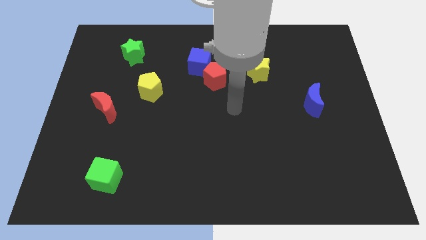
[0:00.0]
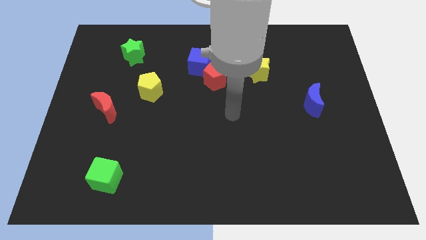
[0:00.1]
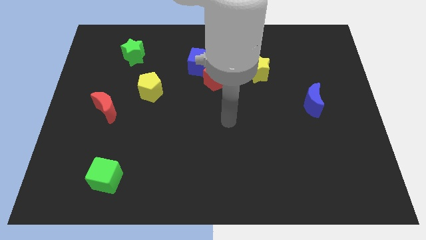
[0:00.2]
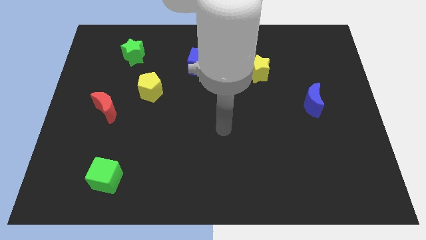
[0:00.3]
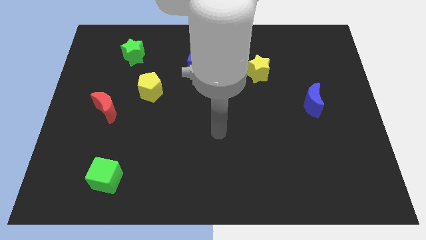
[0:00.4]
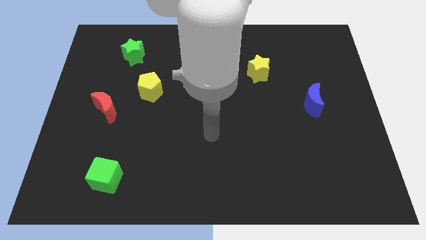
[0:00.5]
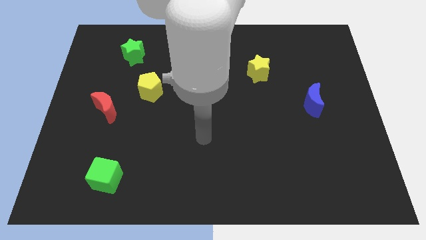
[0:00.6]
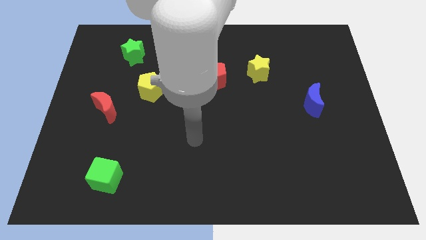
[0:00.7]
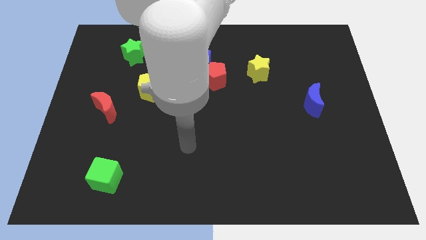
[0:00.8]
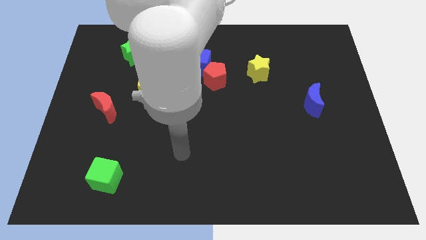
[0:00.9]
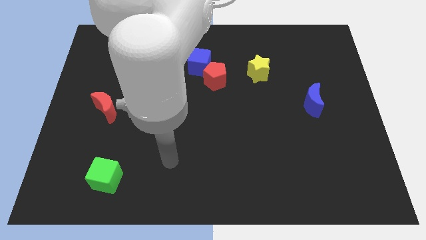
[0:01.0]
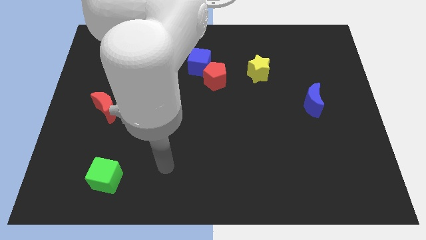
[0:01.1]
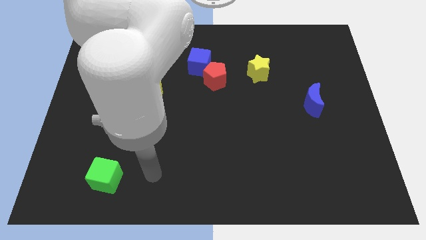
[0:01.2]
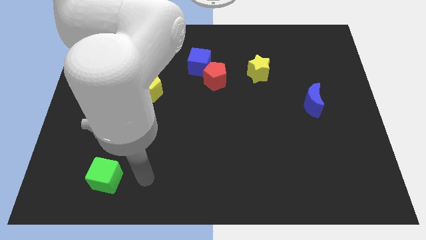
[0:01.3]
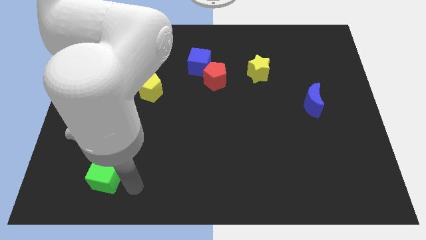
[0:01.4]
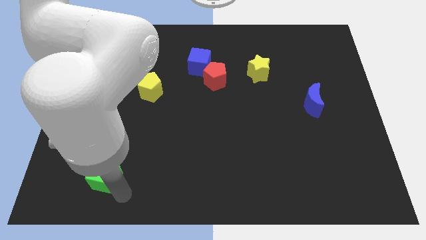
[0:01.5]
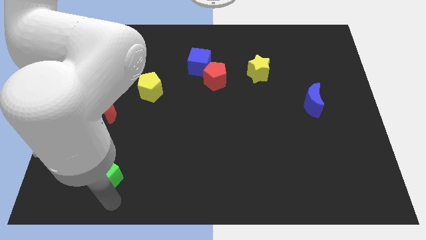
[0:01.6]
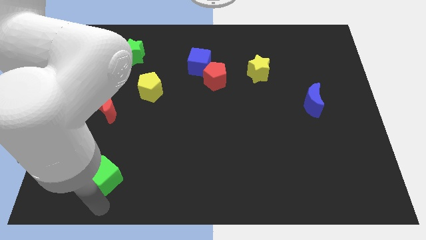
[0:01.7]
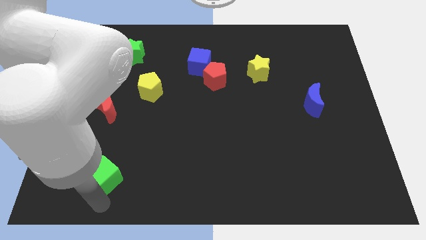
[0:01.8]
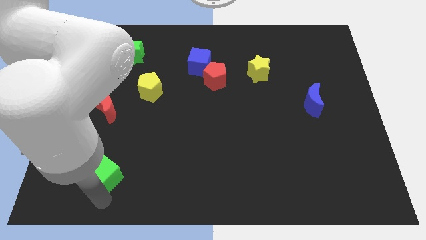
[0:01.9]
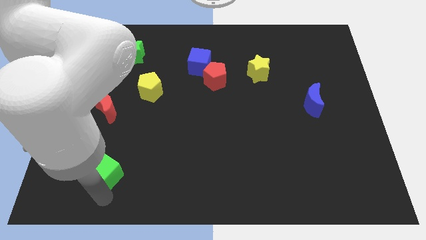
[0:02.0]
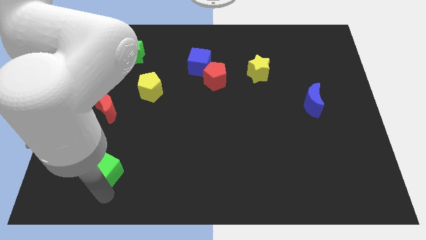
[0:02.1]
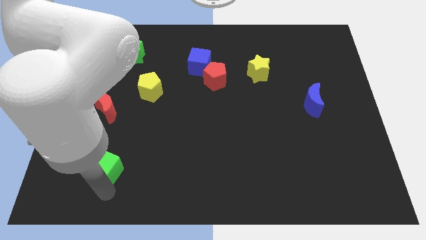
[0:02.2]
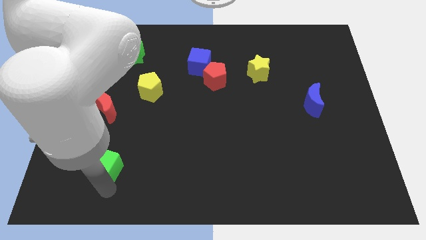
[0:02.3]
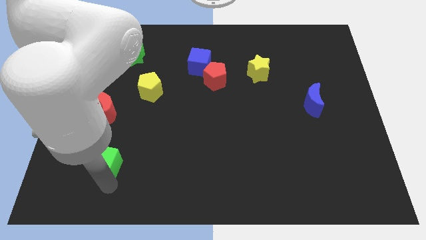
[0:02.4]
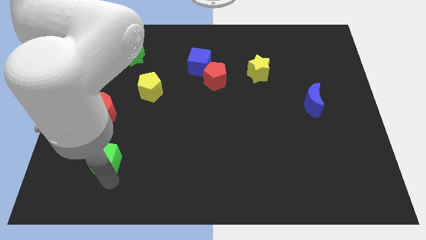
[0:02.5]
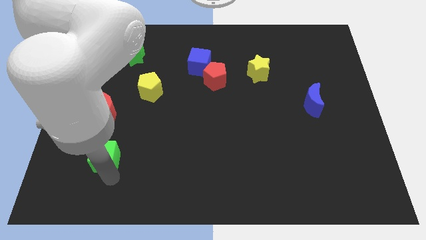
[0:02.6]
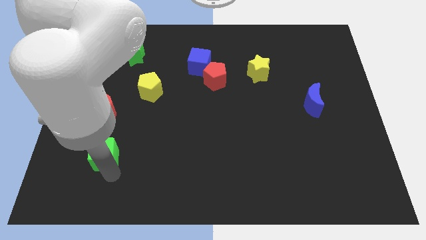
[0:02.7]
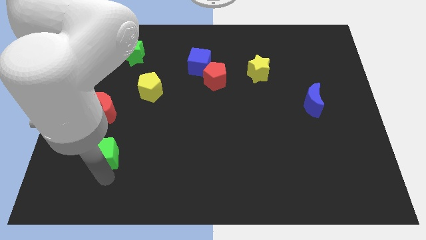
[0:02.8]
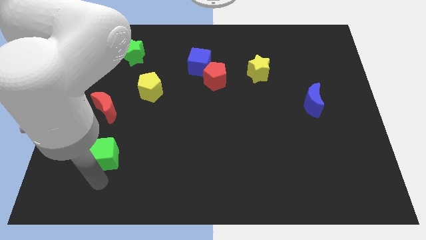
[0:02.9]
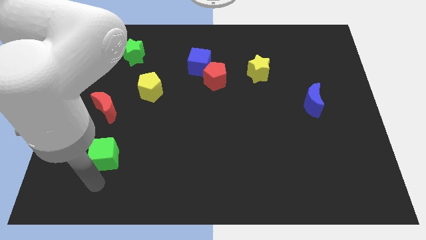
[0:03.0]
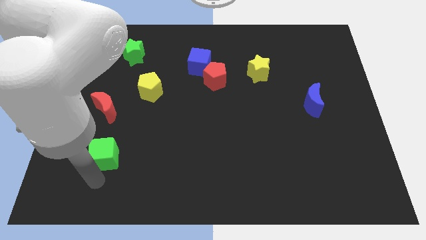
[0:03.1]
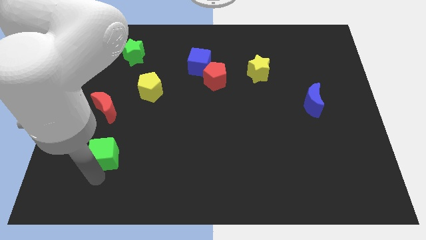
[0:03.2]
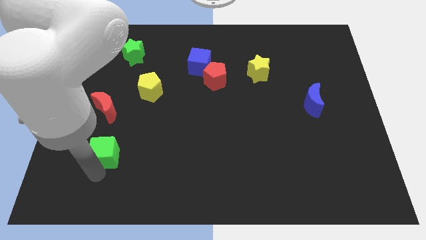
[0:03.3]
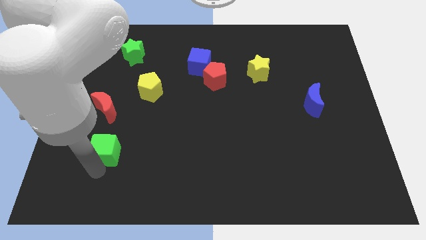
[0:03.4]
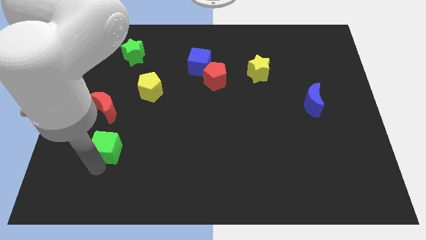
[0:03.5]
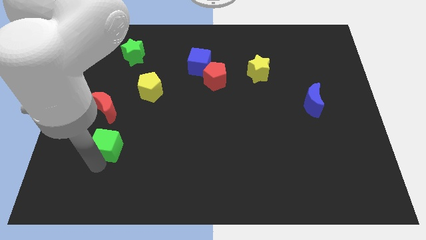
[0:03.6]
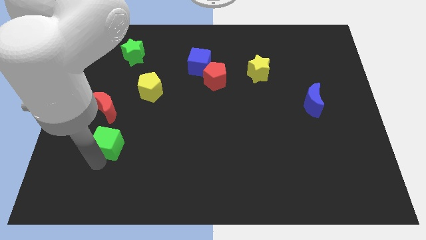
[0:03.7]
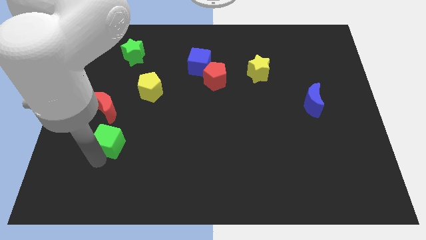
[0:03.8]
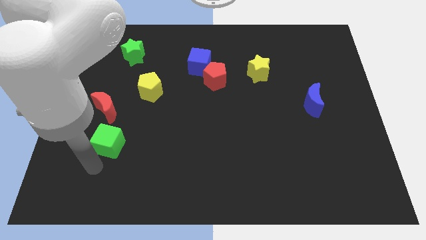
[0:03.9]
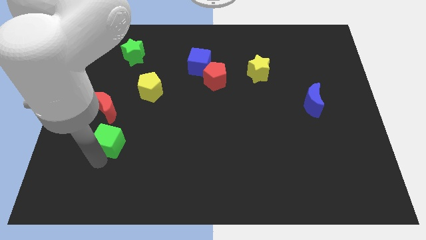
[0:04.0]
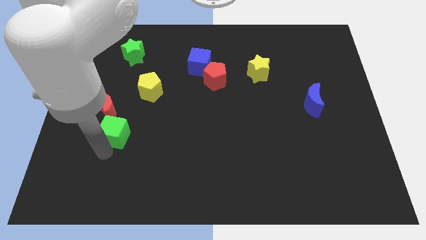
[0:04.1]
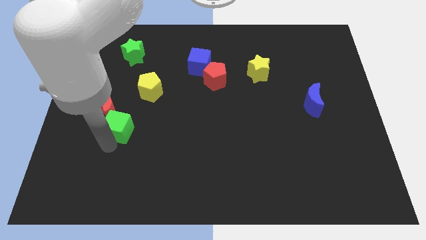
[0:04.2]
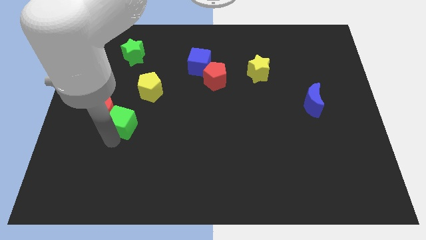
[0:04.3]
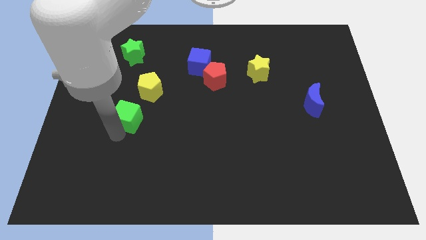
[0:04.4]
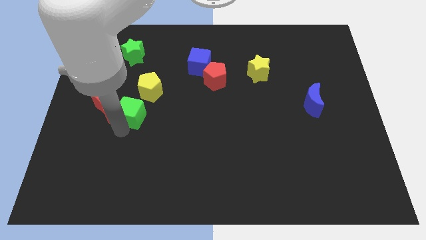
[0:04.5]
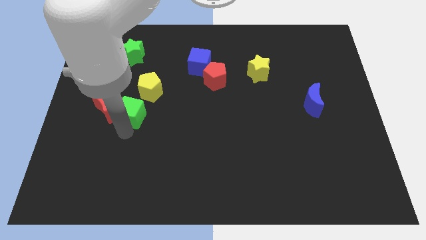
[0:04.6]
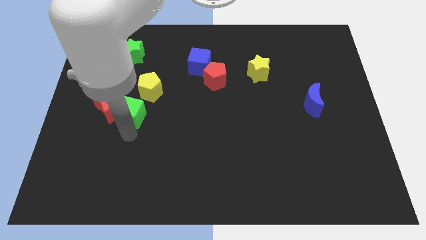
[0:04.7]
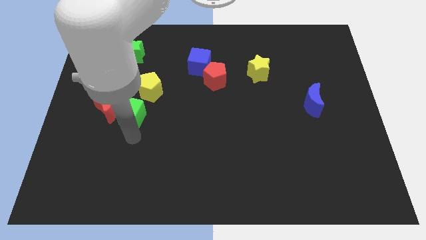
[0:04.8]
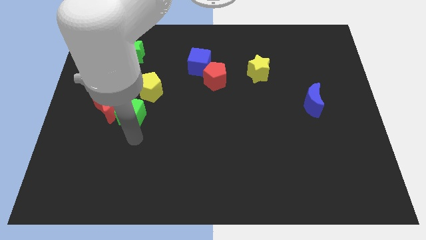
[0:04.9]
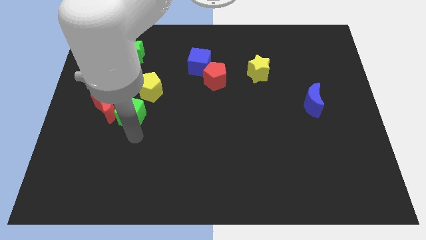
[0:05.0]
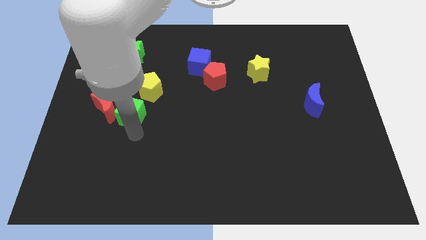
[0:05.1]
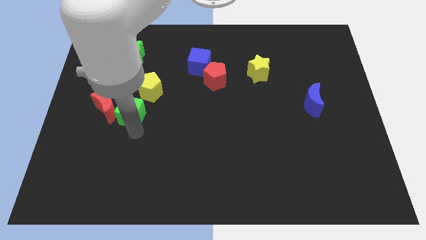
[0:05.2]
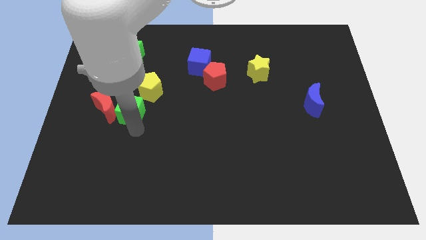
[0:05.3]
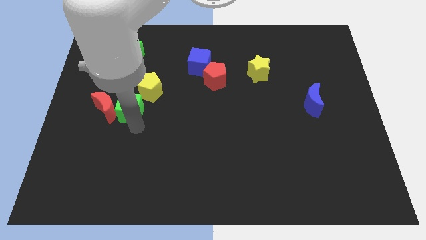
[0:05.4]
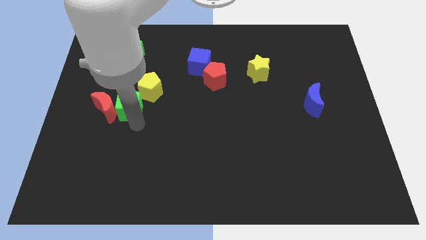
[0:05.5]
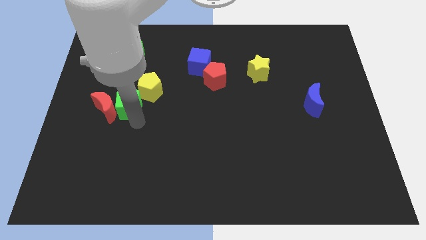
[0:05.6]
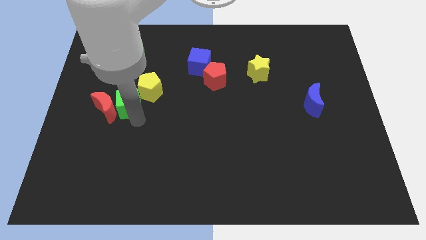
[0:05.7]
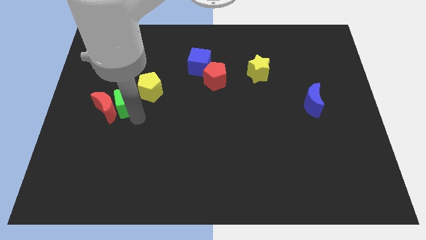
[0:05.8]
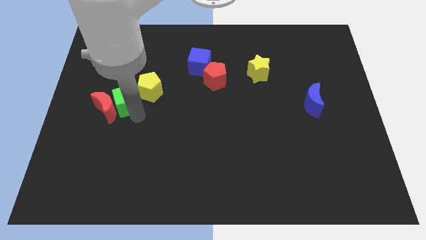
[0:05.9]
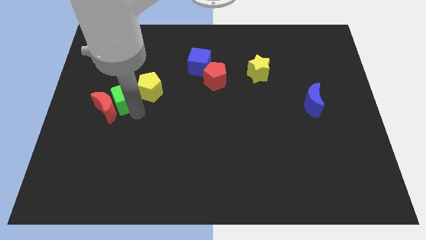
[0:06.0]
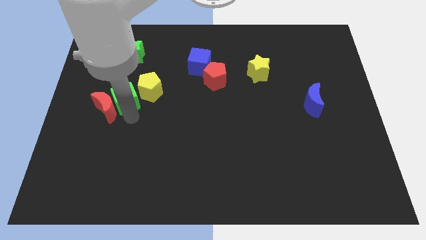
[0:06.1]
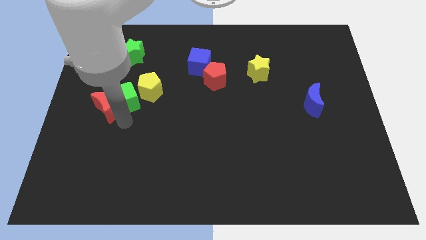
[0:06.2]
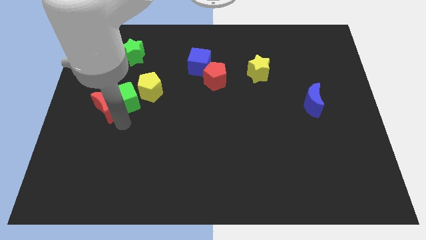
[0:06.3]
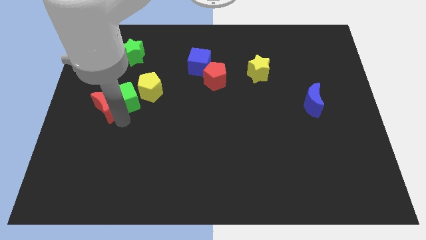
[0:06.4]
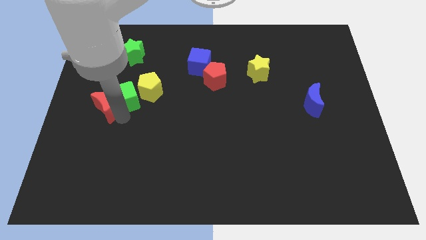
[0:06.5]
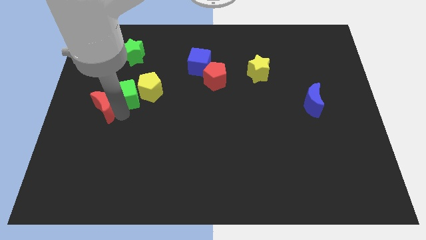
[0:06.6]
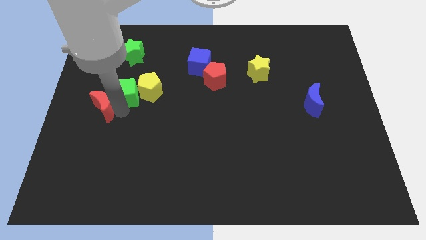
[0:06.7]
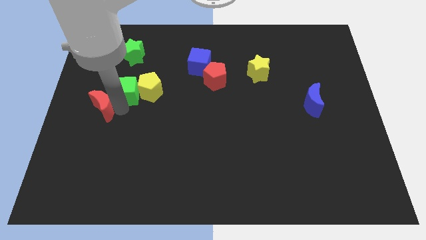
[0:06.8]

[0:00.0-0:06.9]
move the green cube to the top left side of the yellow pentagon
